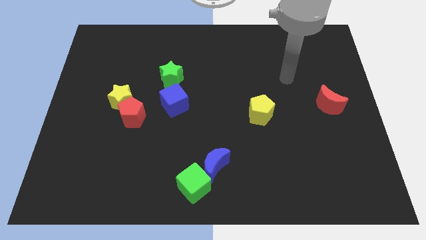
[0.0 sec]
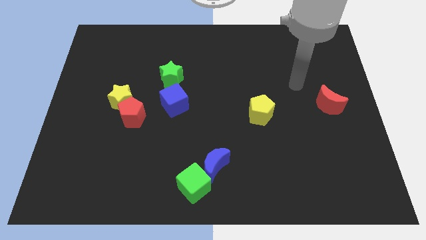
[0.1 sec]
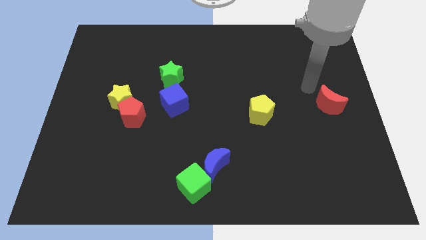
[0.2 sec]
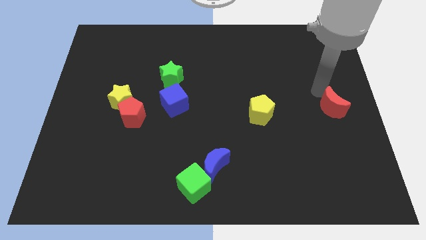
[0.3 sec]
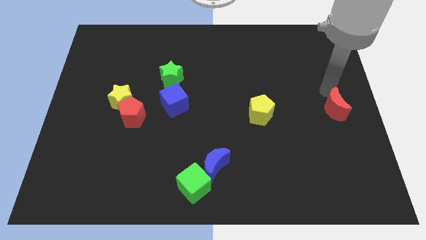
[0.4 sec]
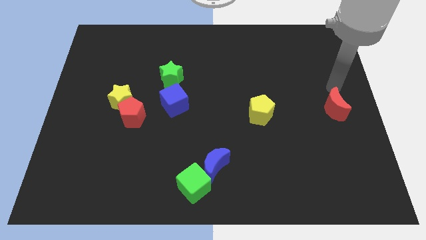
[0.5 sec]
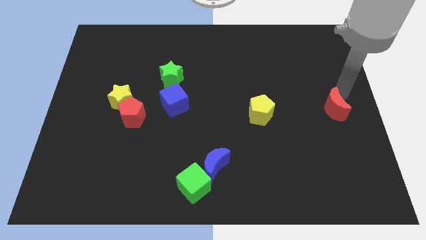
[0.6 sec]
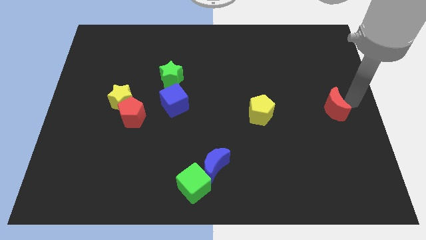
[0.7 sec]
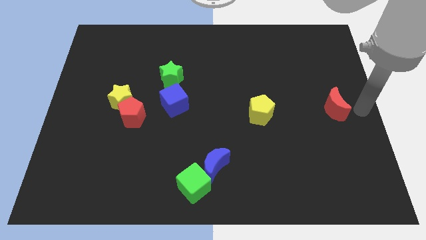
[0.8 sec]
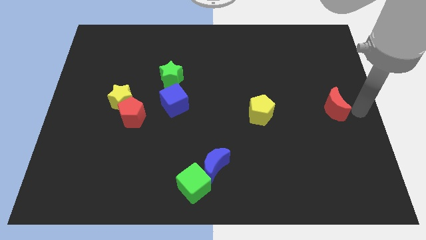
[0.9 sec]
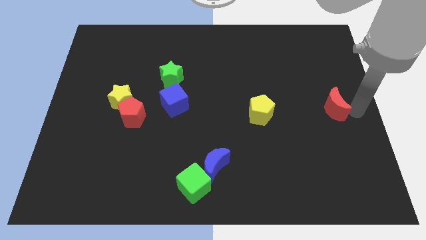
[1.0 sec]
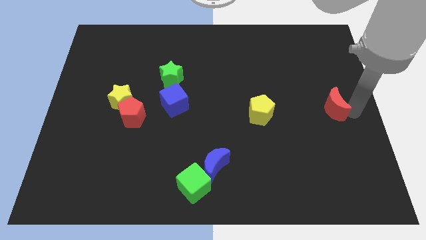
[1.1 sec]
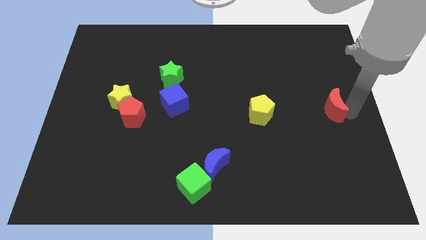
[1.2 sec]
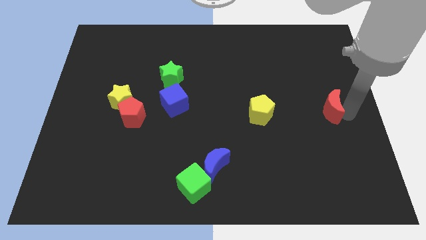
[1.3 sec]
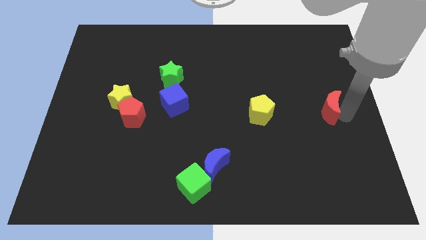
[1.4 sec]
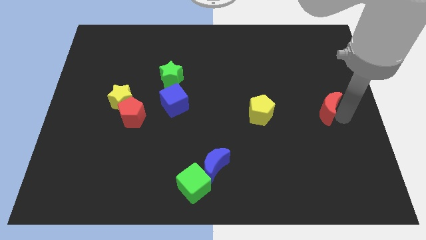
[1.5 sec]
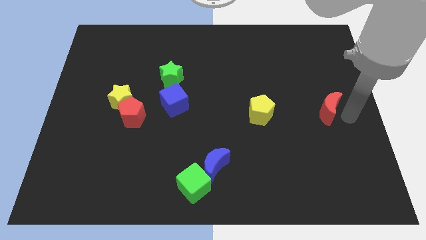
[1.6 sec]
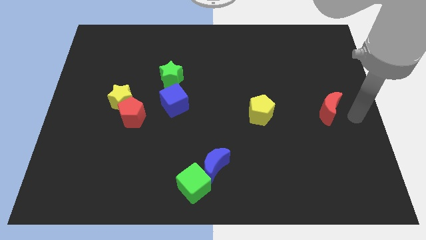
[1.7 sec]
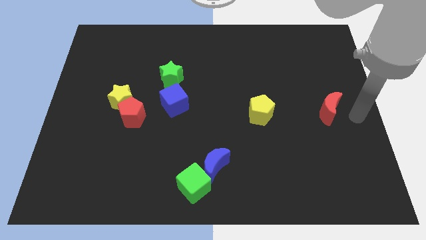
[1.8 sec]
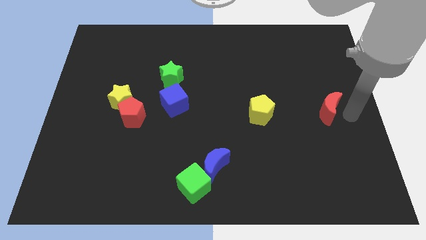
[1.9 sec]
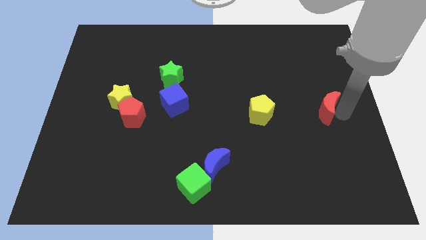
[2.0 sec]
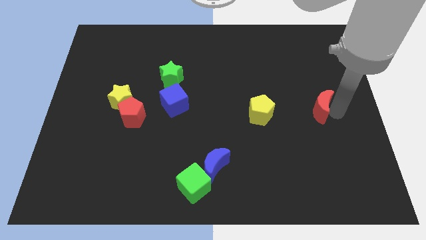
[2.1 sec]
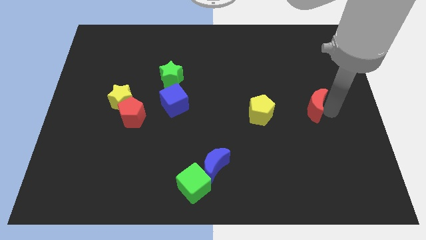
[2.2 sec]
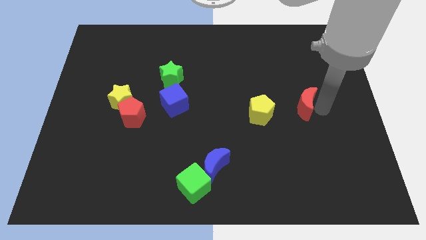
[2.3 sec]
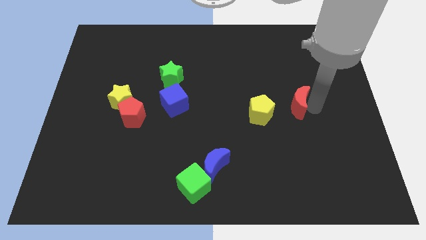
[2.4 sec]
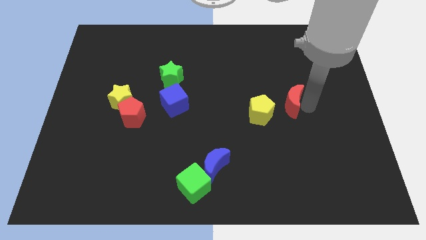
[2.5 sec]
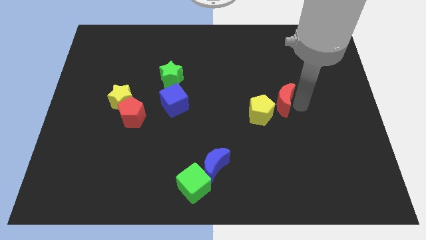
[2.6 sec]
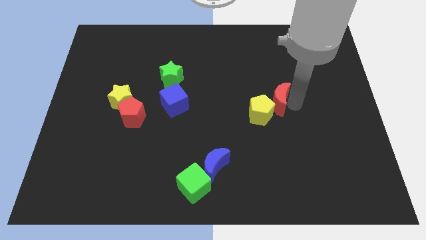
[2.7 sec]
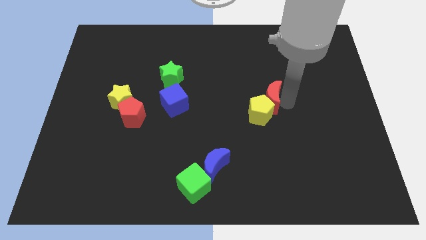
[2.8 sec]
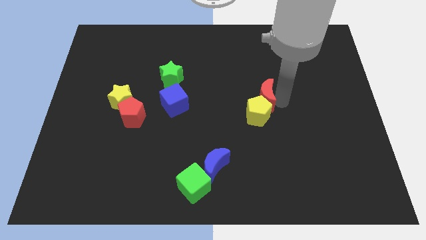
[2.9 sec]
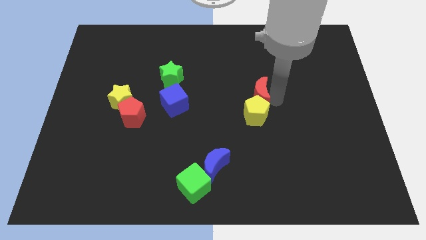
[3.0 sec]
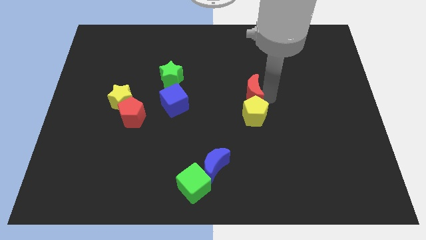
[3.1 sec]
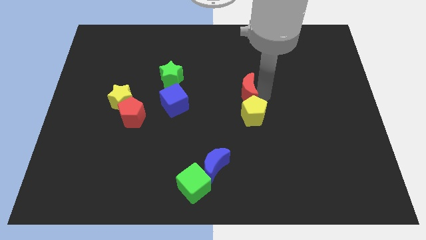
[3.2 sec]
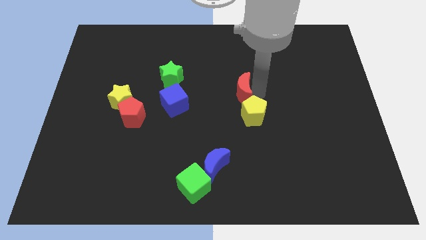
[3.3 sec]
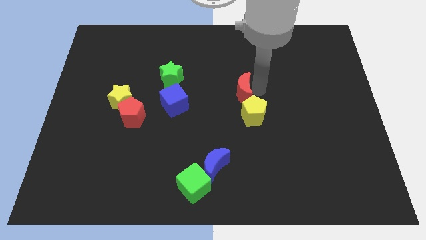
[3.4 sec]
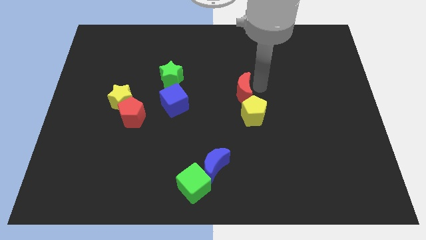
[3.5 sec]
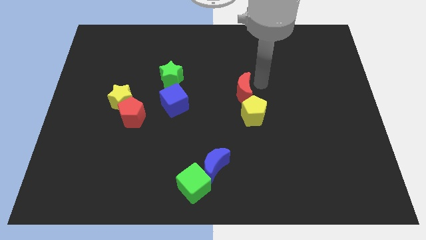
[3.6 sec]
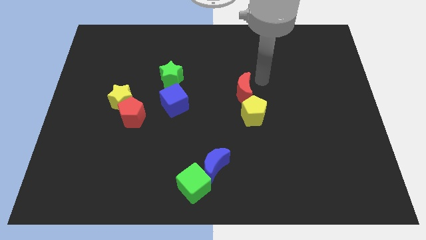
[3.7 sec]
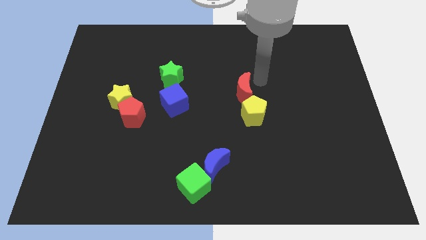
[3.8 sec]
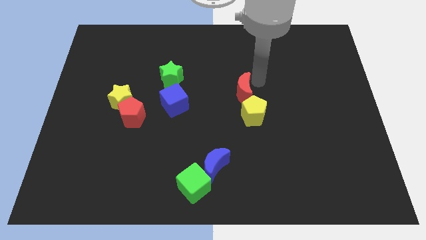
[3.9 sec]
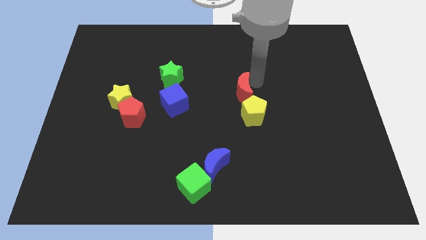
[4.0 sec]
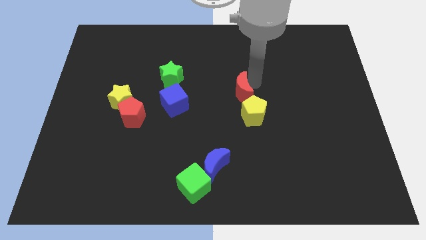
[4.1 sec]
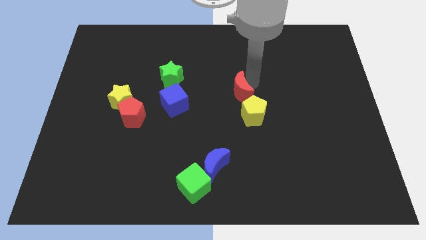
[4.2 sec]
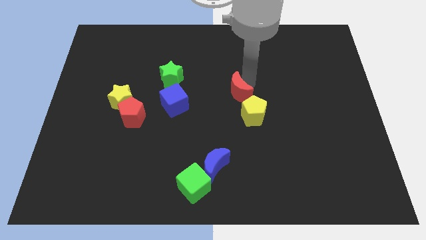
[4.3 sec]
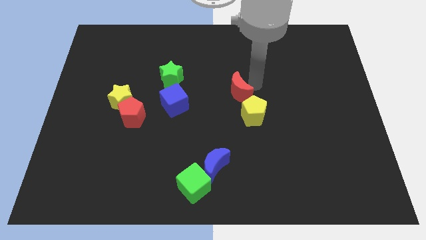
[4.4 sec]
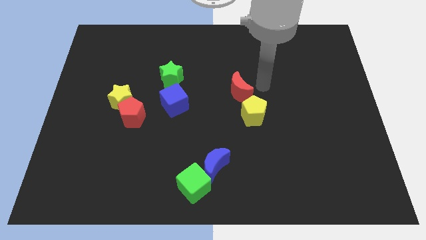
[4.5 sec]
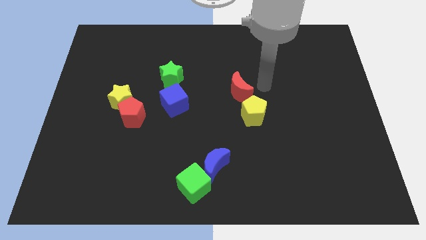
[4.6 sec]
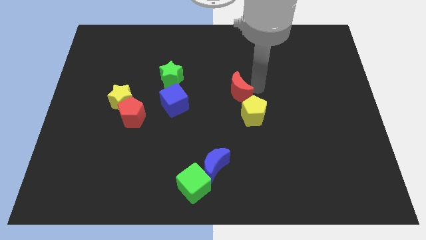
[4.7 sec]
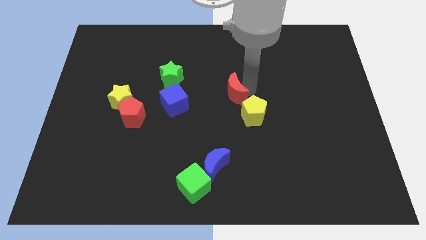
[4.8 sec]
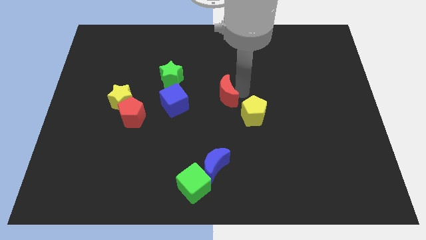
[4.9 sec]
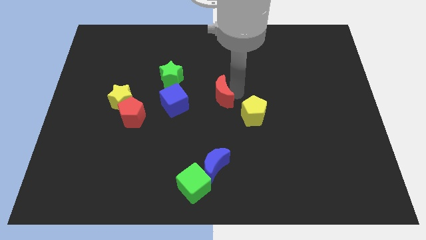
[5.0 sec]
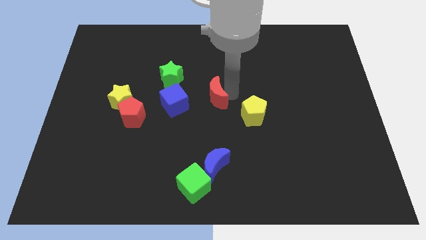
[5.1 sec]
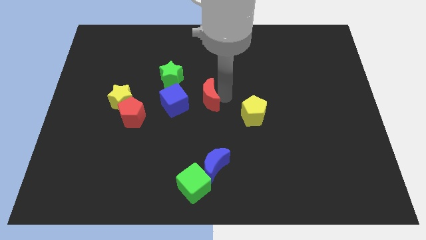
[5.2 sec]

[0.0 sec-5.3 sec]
put the red moon diagonally down and to the right of the green star

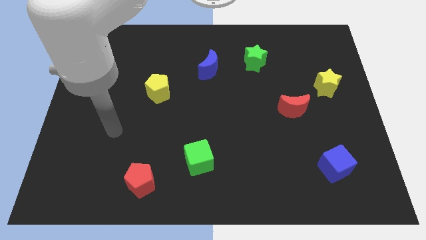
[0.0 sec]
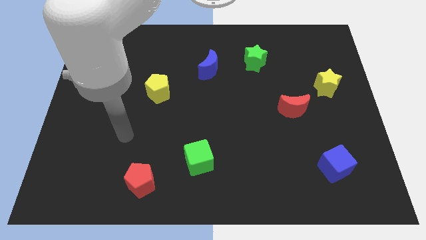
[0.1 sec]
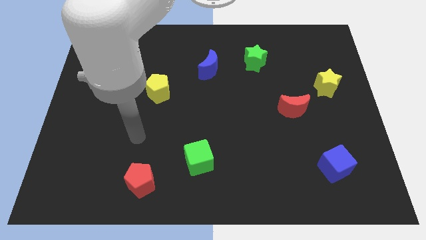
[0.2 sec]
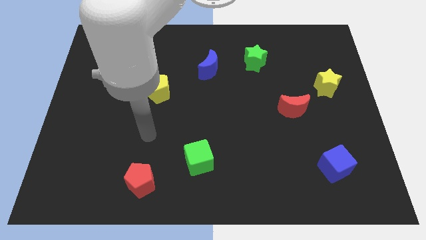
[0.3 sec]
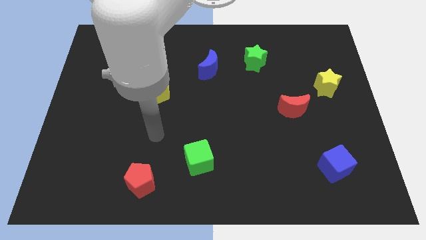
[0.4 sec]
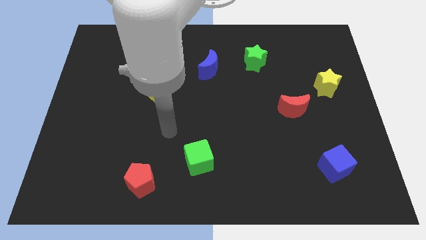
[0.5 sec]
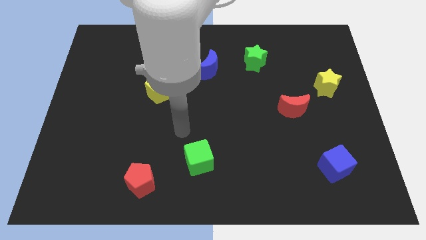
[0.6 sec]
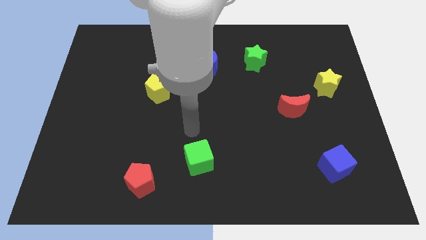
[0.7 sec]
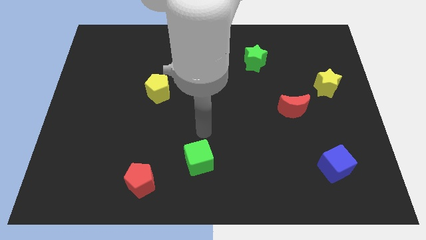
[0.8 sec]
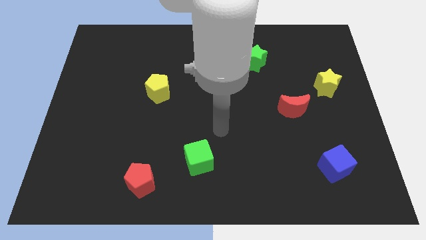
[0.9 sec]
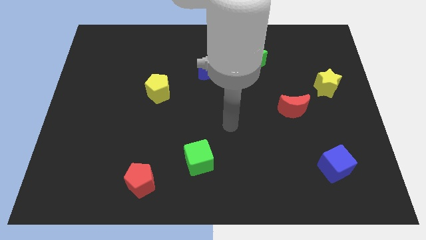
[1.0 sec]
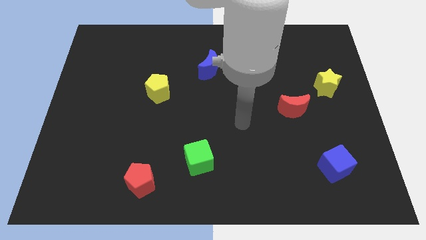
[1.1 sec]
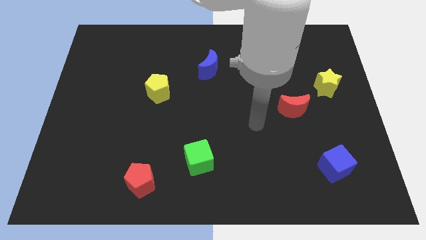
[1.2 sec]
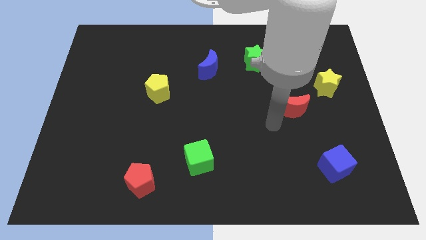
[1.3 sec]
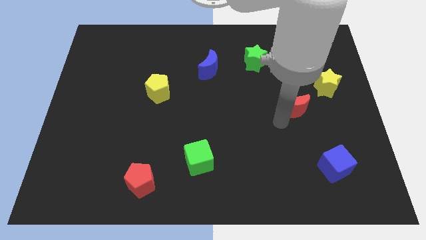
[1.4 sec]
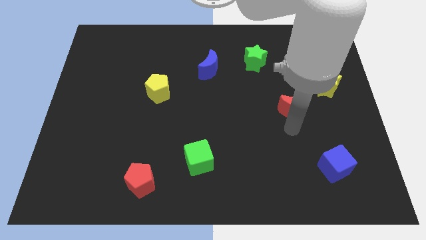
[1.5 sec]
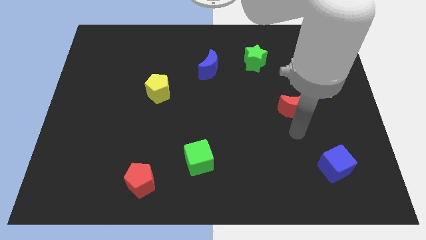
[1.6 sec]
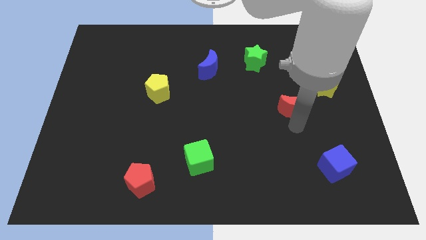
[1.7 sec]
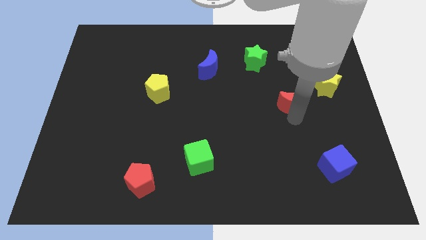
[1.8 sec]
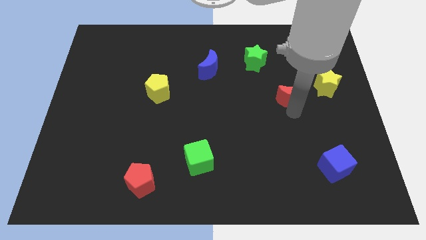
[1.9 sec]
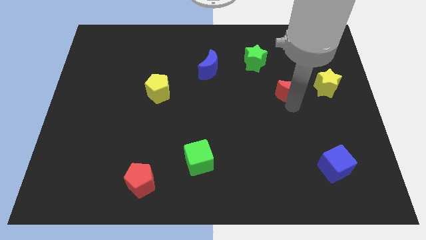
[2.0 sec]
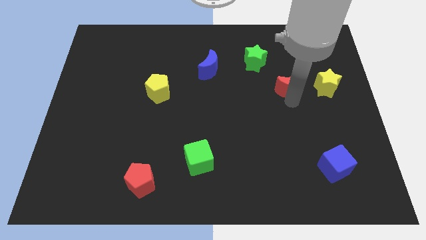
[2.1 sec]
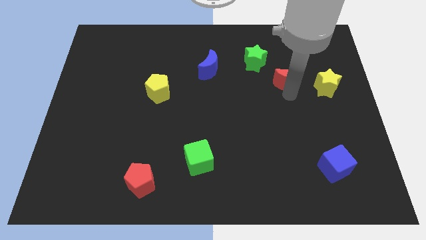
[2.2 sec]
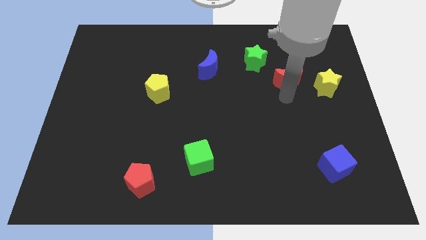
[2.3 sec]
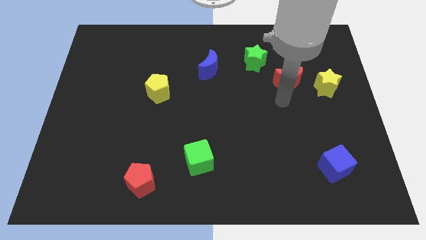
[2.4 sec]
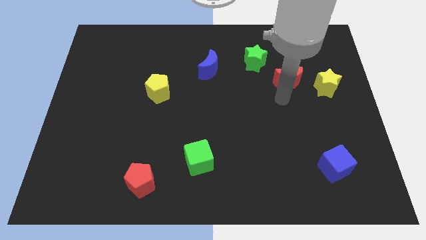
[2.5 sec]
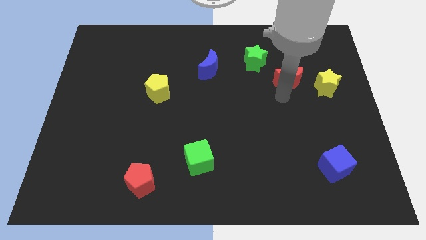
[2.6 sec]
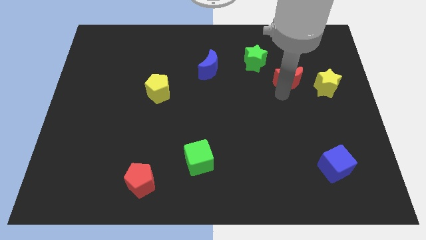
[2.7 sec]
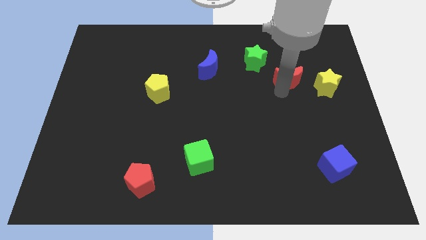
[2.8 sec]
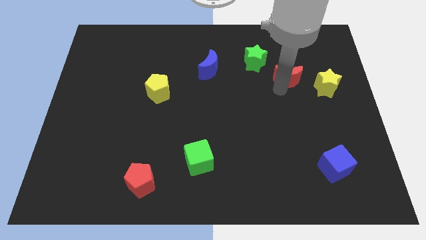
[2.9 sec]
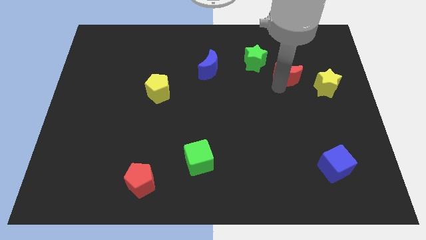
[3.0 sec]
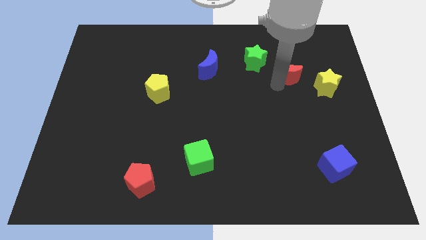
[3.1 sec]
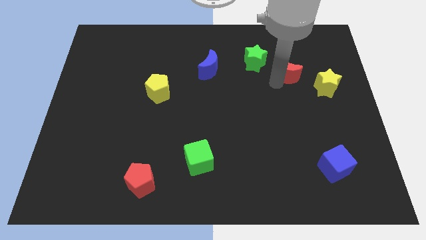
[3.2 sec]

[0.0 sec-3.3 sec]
move the red moon to the right of the green star
